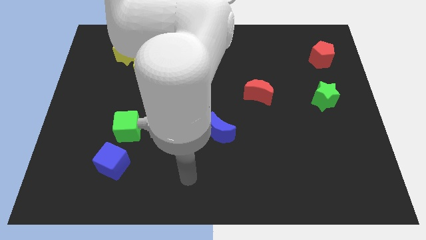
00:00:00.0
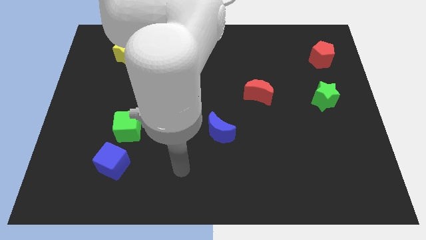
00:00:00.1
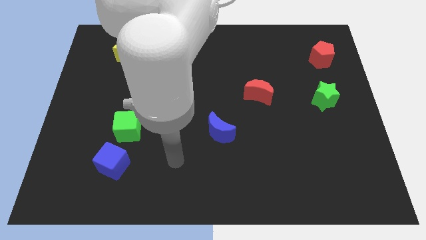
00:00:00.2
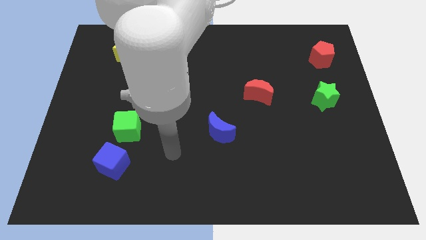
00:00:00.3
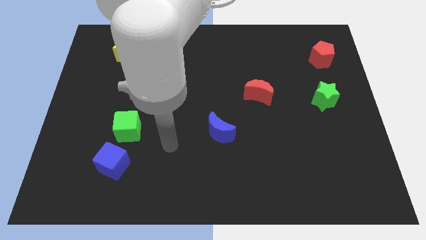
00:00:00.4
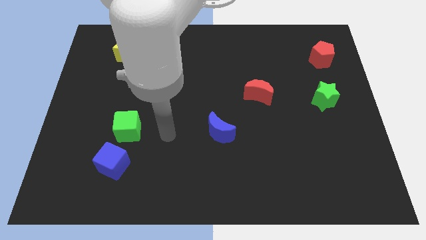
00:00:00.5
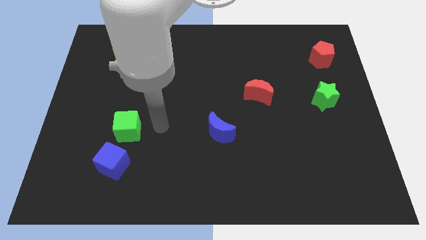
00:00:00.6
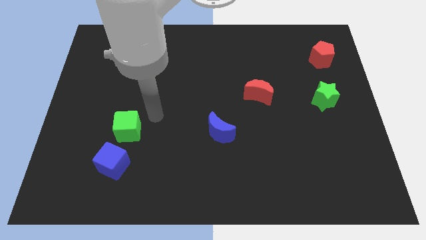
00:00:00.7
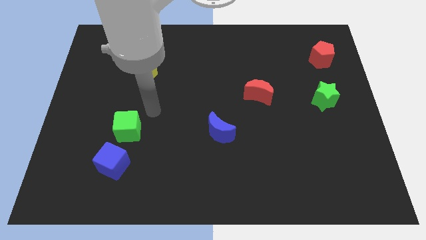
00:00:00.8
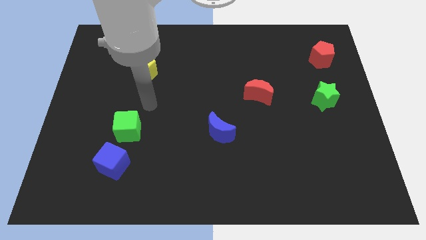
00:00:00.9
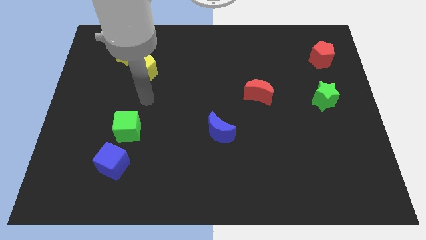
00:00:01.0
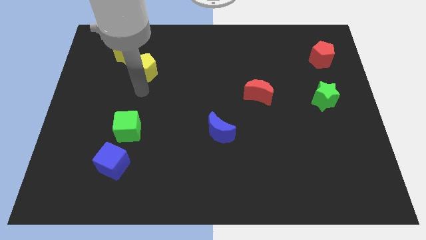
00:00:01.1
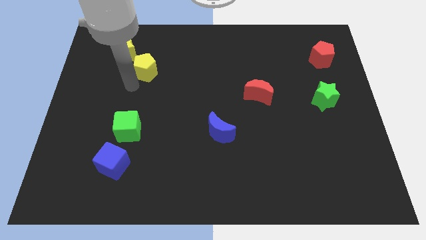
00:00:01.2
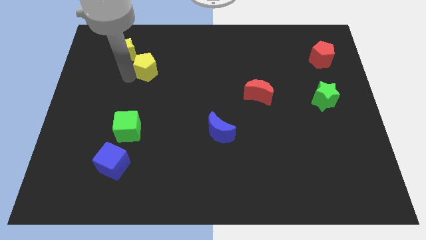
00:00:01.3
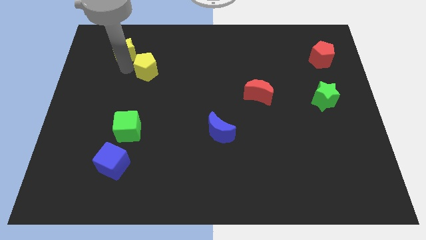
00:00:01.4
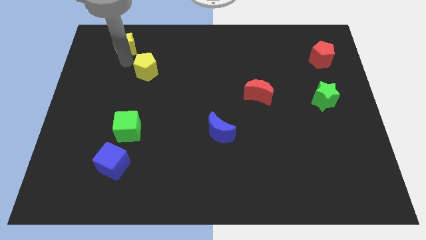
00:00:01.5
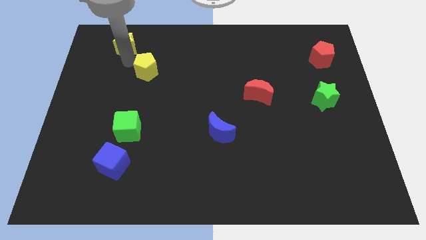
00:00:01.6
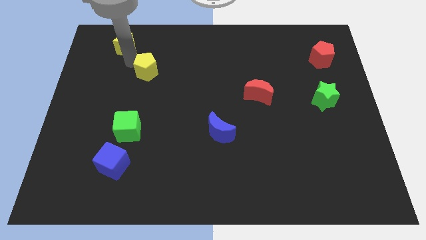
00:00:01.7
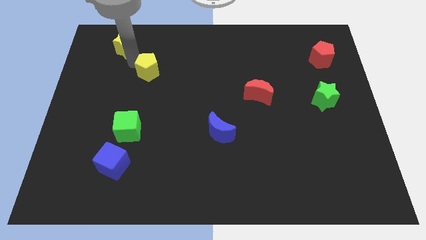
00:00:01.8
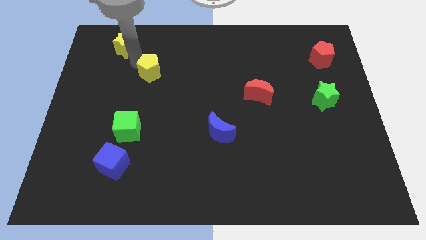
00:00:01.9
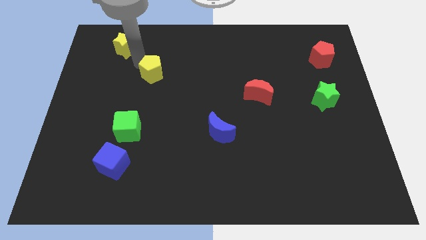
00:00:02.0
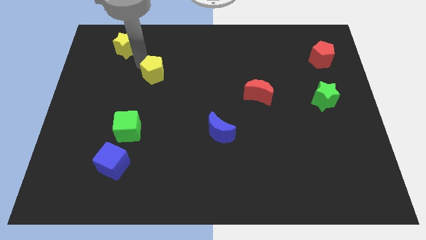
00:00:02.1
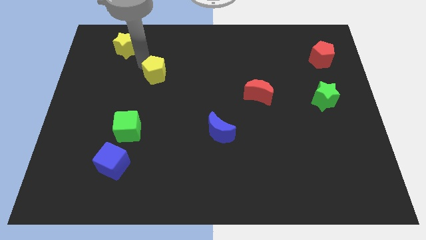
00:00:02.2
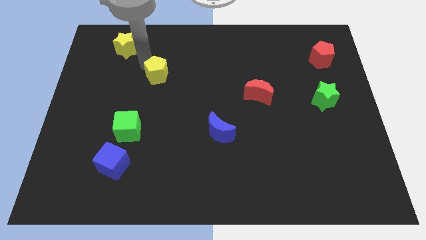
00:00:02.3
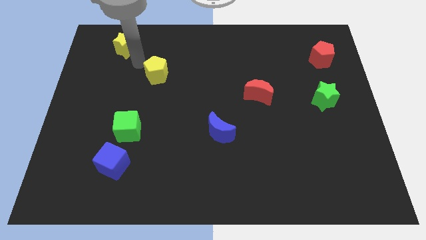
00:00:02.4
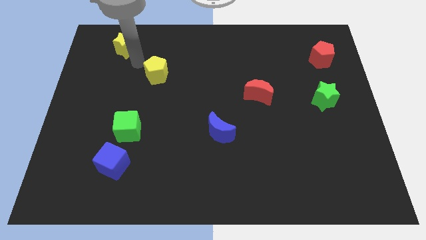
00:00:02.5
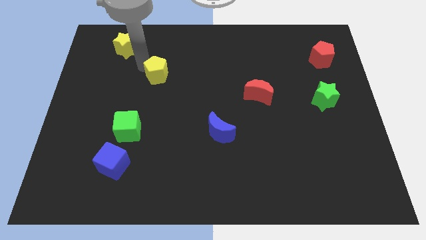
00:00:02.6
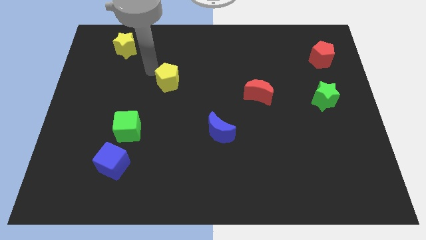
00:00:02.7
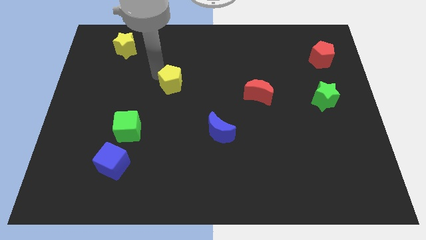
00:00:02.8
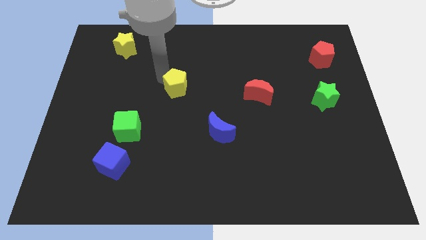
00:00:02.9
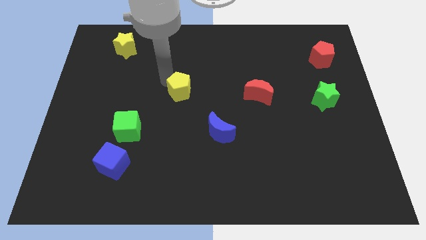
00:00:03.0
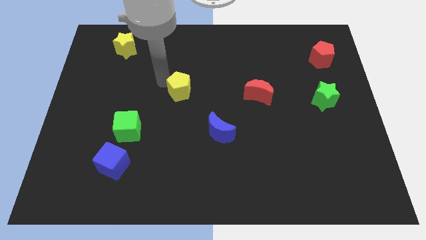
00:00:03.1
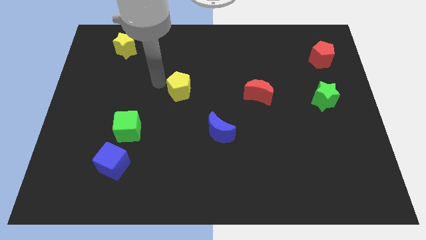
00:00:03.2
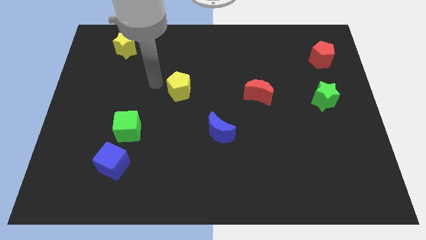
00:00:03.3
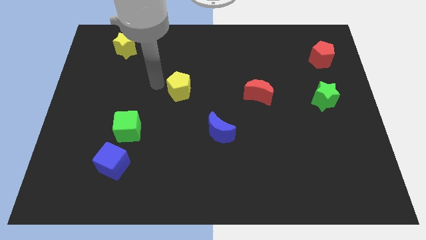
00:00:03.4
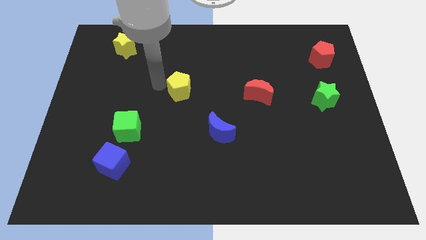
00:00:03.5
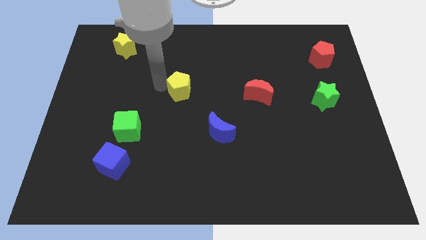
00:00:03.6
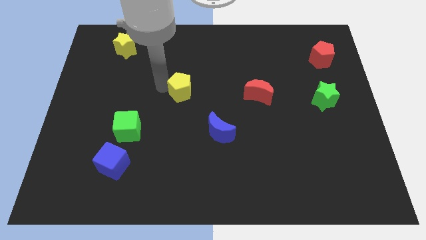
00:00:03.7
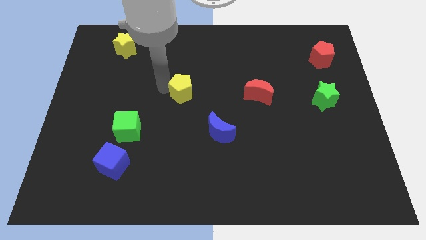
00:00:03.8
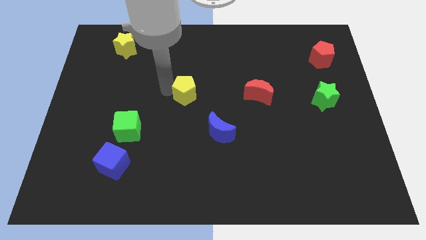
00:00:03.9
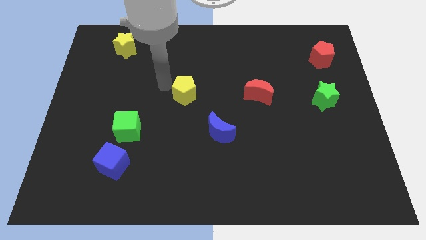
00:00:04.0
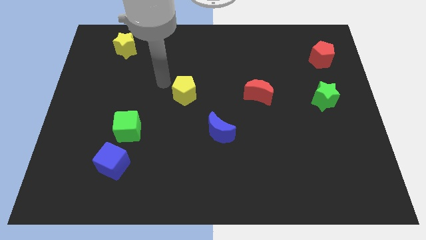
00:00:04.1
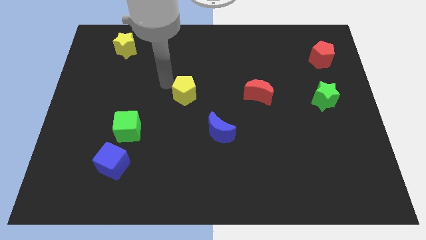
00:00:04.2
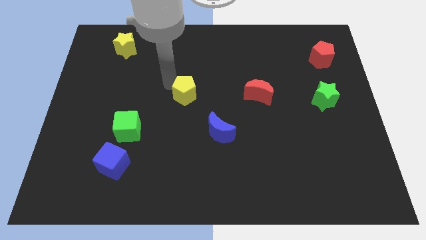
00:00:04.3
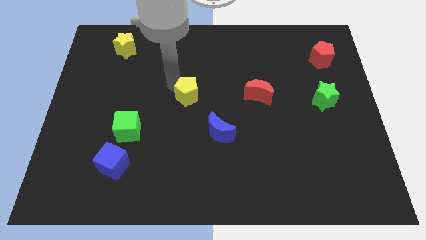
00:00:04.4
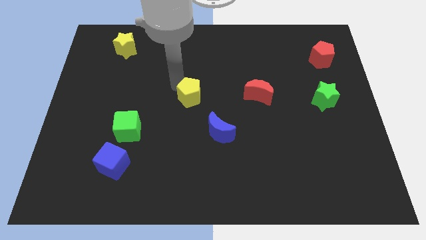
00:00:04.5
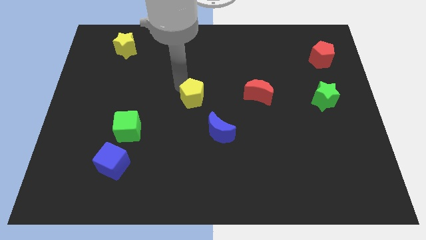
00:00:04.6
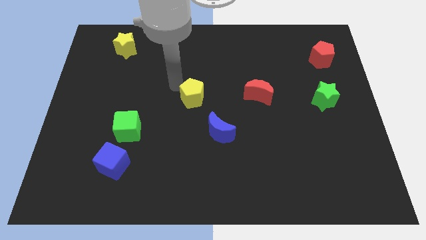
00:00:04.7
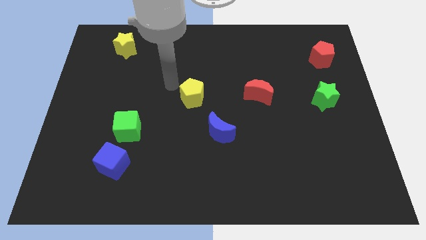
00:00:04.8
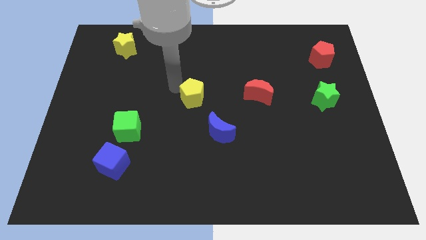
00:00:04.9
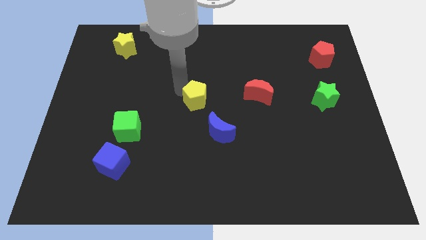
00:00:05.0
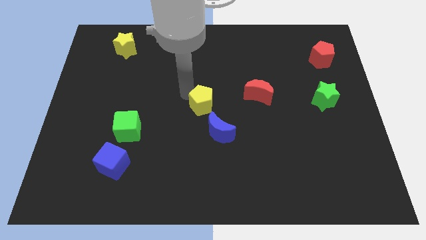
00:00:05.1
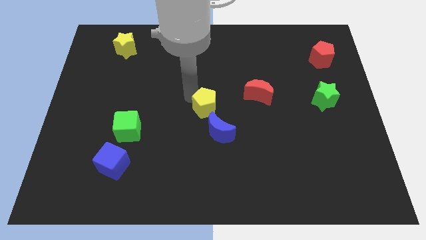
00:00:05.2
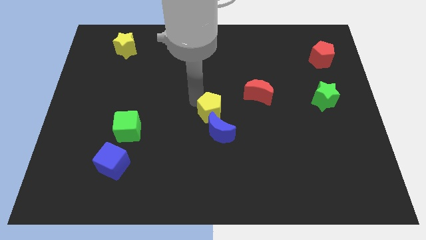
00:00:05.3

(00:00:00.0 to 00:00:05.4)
push the yellow pentagon diagonally downwards and right

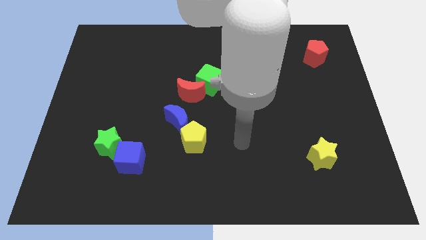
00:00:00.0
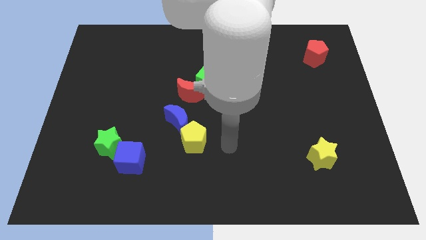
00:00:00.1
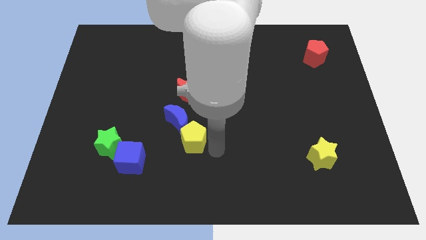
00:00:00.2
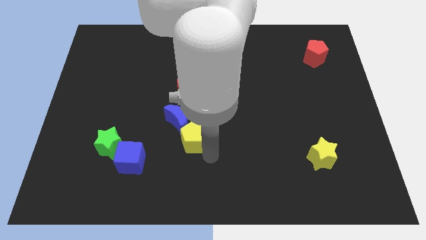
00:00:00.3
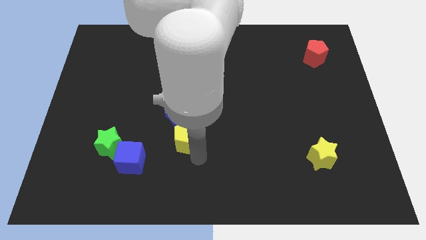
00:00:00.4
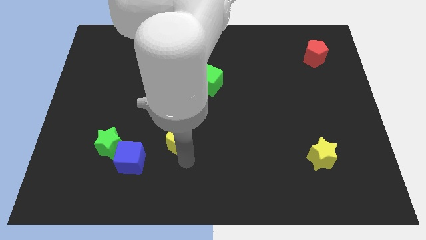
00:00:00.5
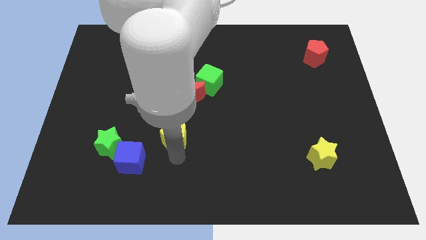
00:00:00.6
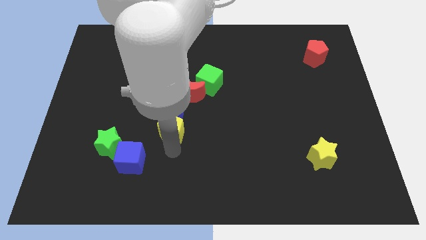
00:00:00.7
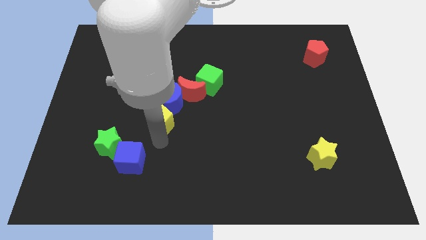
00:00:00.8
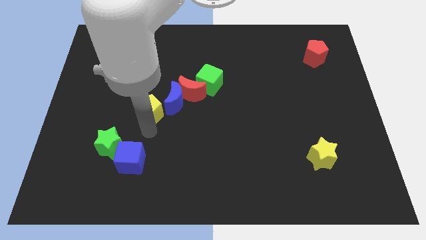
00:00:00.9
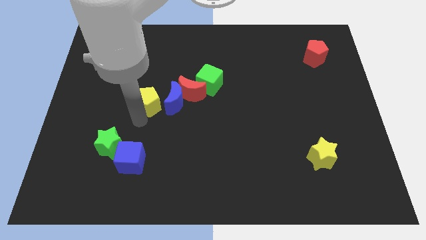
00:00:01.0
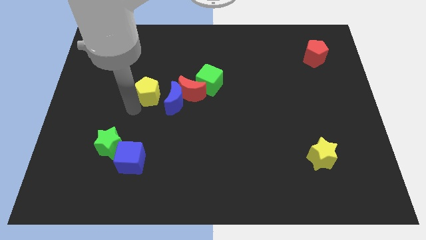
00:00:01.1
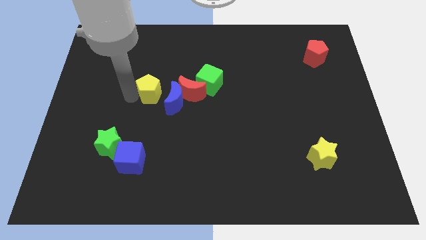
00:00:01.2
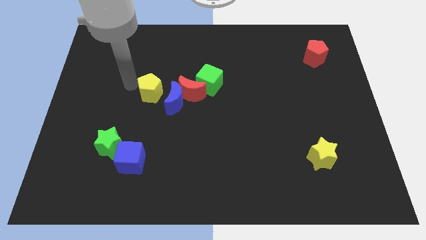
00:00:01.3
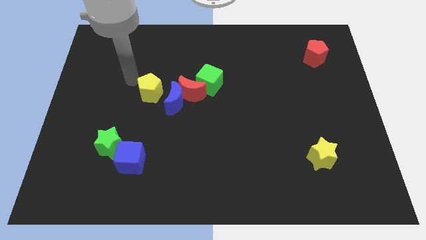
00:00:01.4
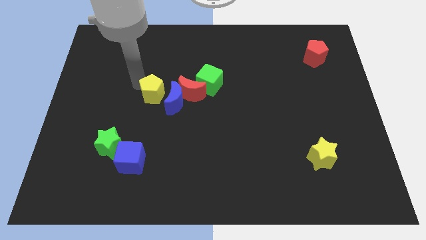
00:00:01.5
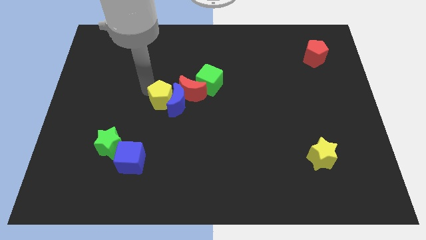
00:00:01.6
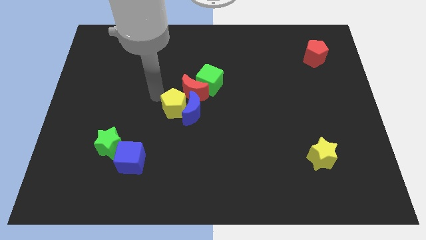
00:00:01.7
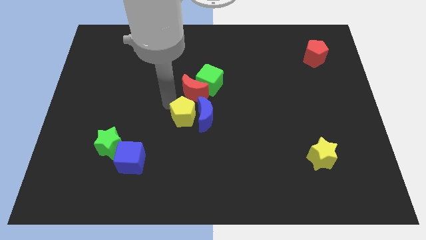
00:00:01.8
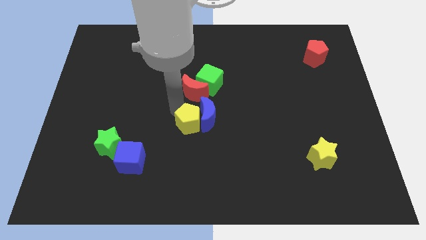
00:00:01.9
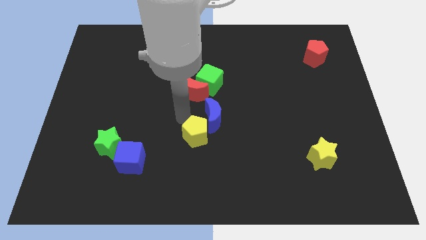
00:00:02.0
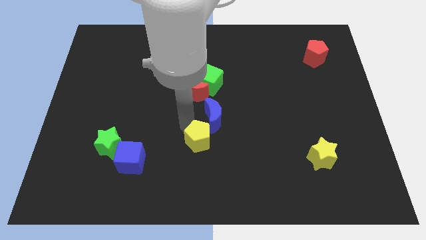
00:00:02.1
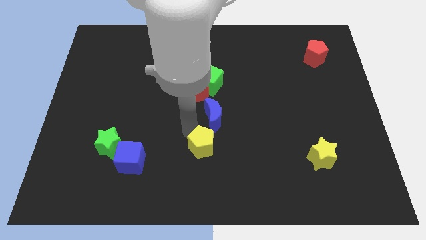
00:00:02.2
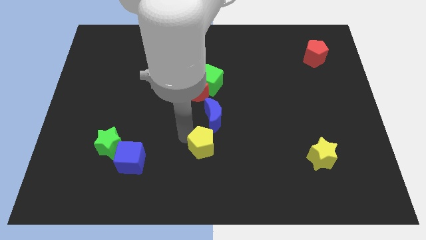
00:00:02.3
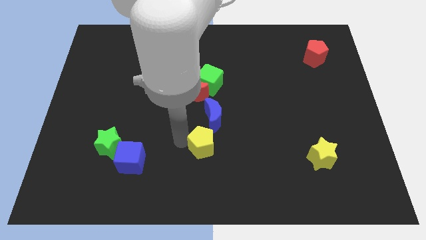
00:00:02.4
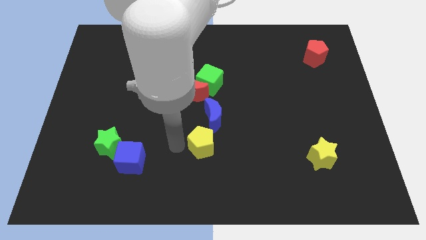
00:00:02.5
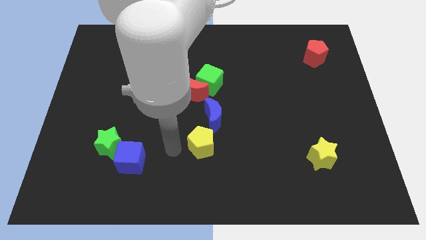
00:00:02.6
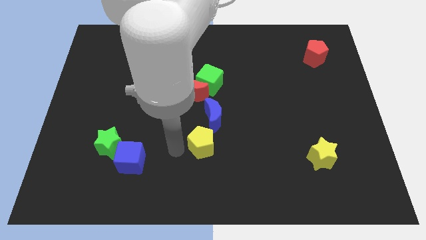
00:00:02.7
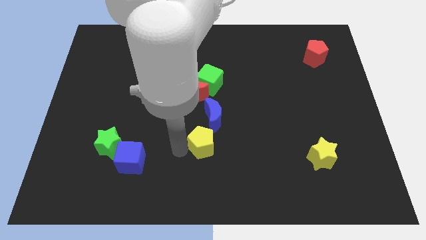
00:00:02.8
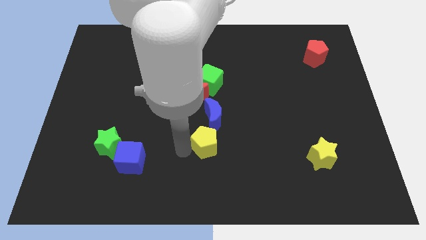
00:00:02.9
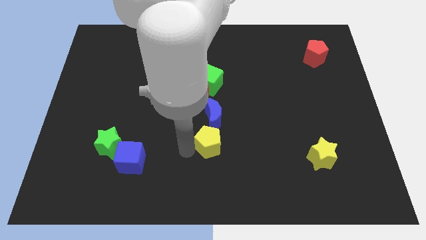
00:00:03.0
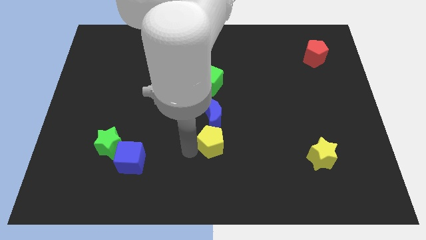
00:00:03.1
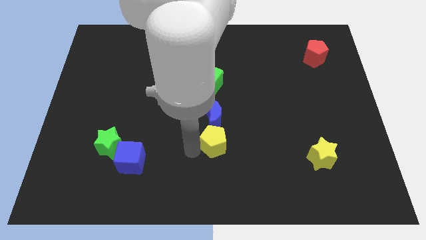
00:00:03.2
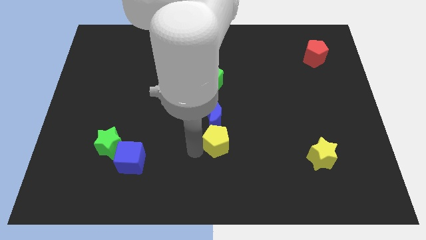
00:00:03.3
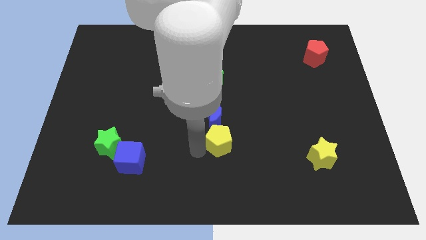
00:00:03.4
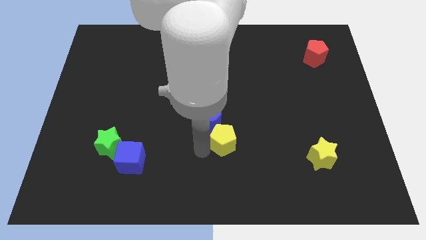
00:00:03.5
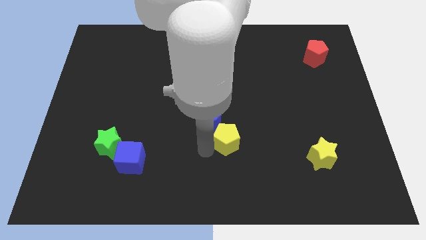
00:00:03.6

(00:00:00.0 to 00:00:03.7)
slightly move the yellow pentagon to the right
